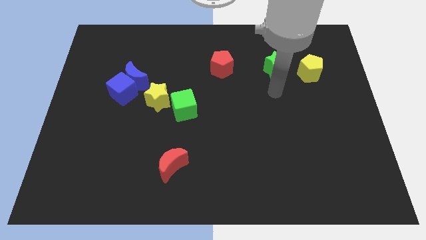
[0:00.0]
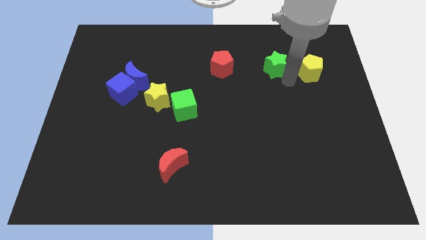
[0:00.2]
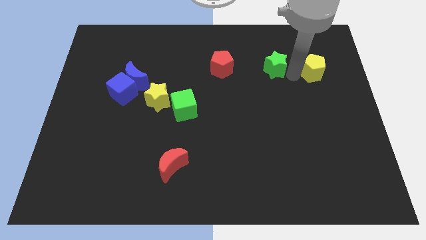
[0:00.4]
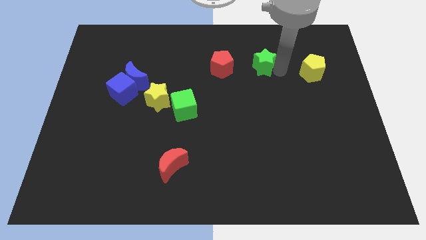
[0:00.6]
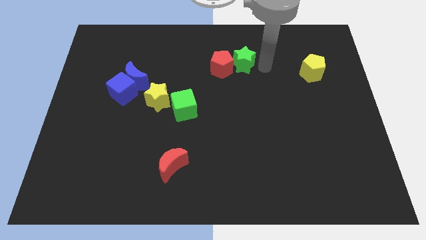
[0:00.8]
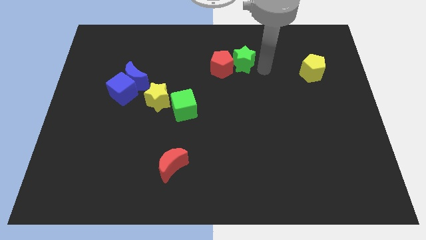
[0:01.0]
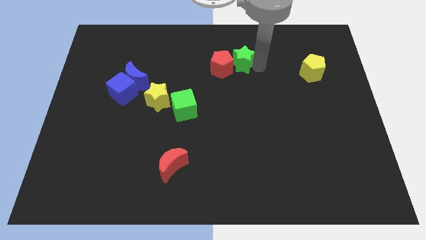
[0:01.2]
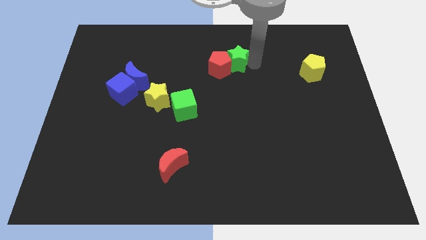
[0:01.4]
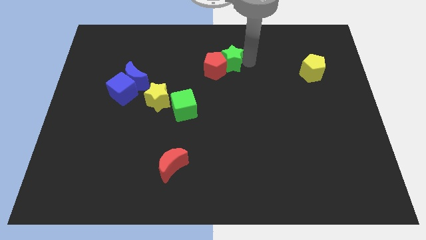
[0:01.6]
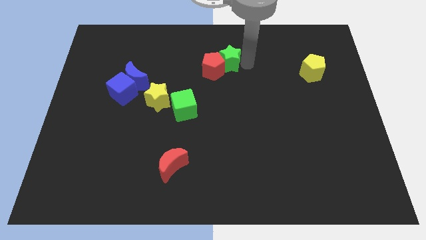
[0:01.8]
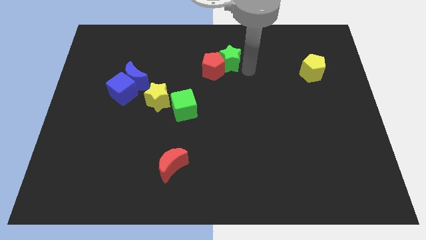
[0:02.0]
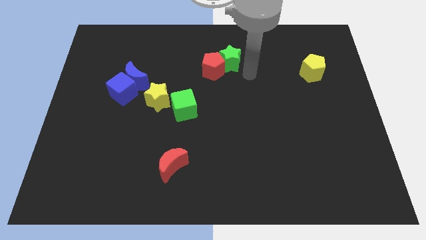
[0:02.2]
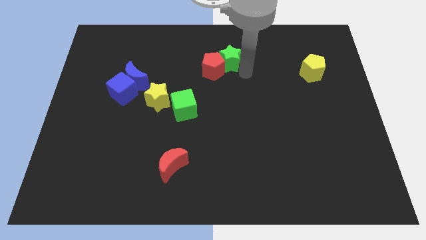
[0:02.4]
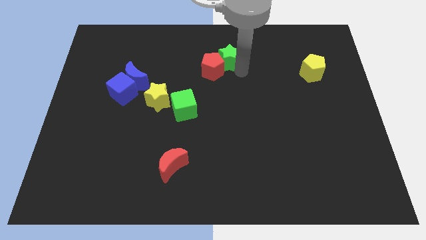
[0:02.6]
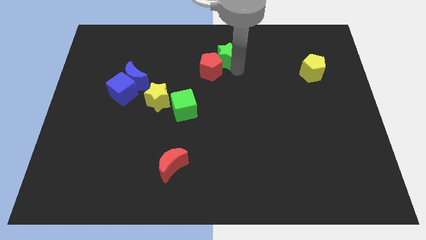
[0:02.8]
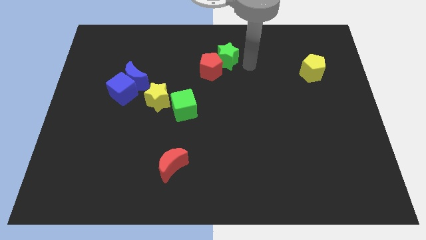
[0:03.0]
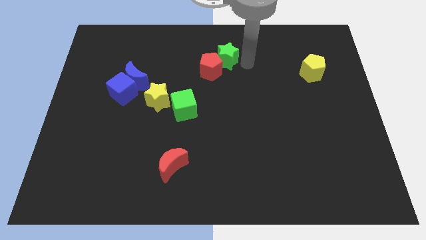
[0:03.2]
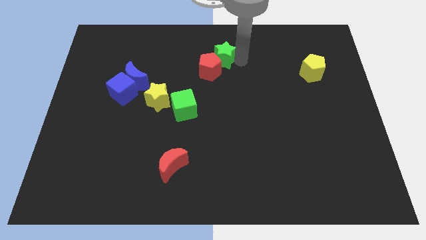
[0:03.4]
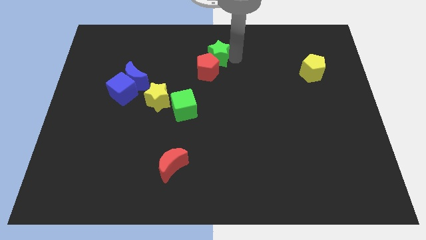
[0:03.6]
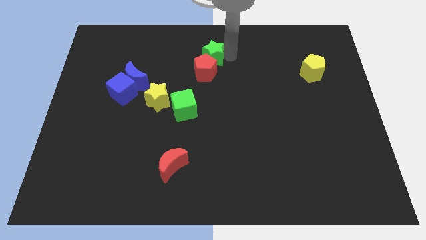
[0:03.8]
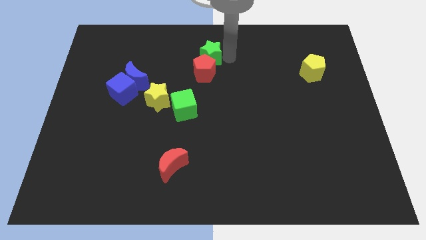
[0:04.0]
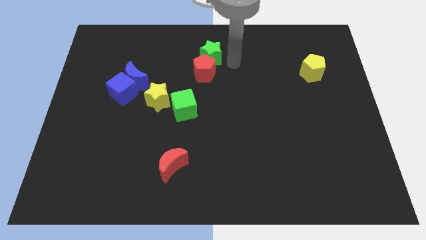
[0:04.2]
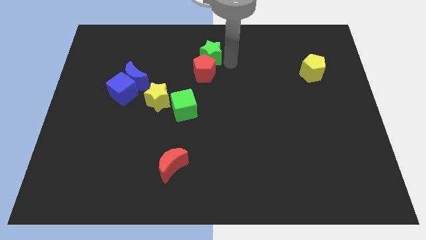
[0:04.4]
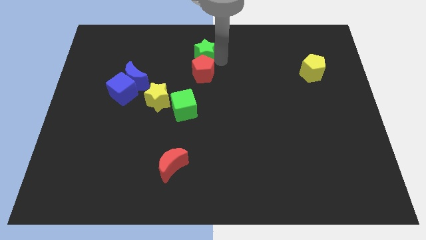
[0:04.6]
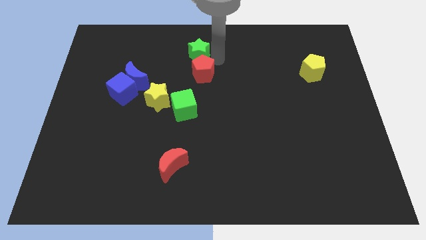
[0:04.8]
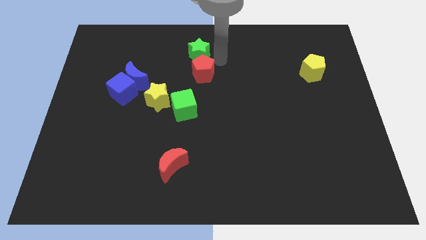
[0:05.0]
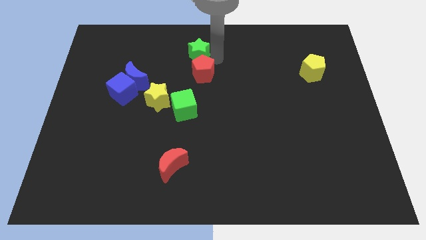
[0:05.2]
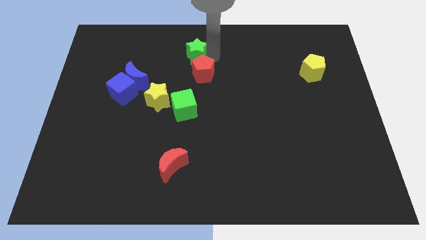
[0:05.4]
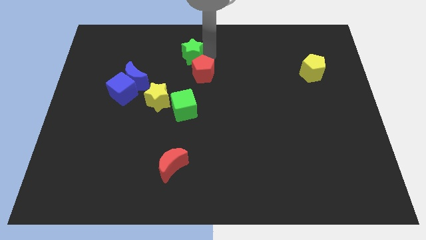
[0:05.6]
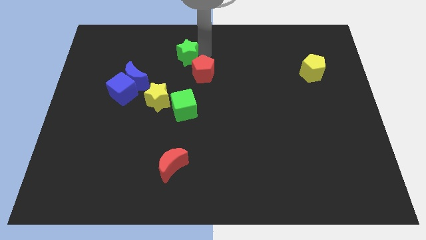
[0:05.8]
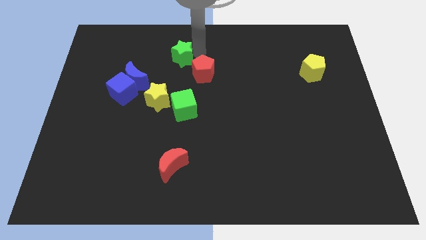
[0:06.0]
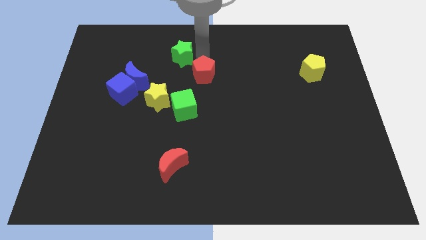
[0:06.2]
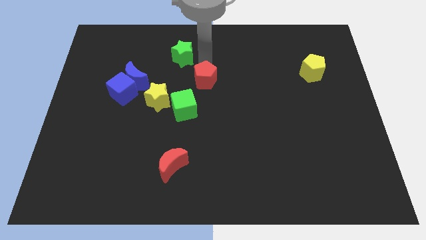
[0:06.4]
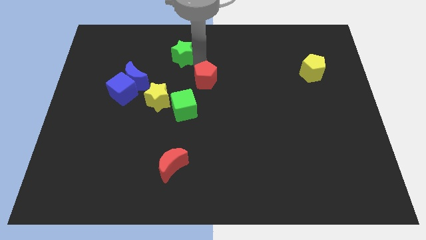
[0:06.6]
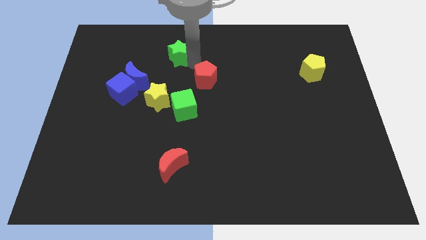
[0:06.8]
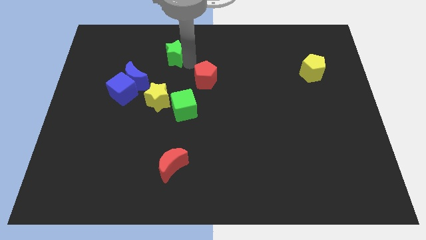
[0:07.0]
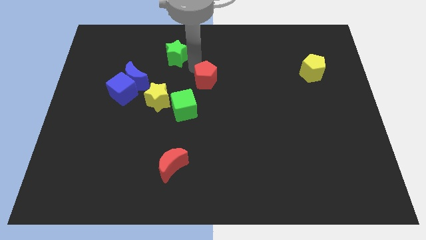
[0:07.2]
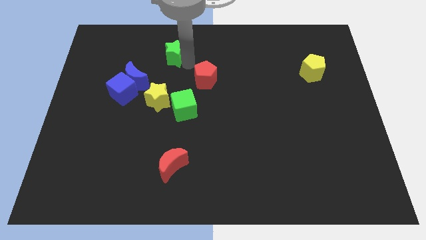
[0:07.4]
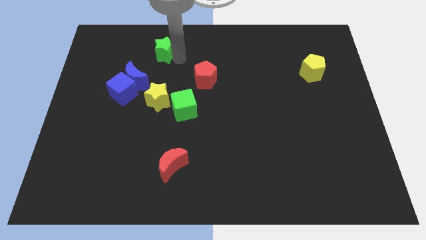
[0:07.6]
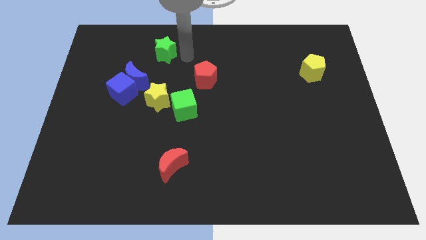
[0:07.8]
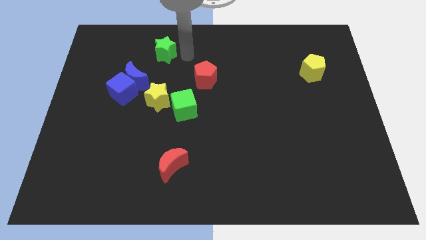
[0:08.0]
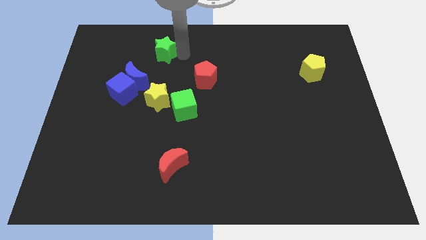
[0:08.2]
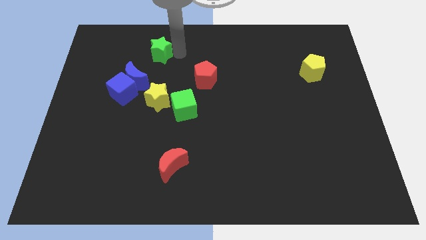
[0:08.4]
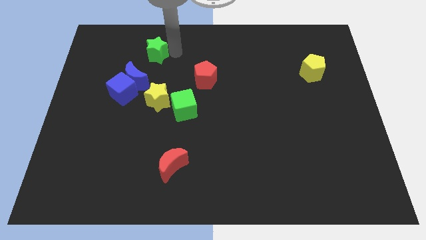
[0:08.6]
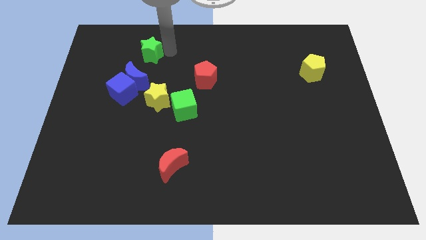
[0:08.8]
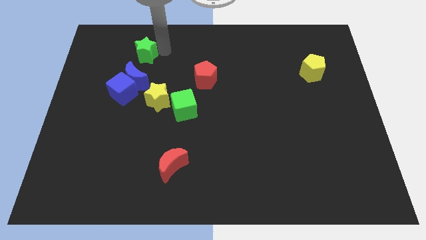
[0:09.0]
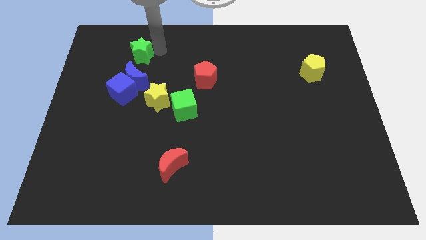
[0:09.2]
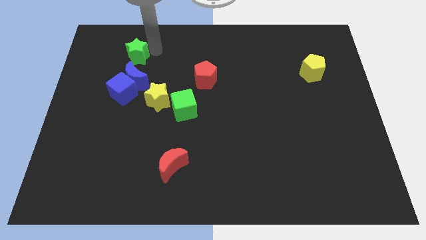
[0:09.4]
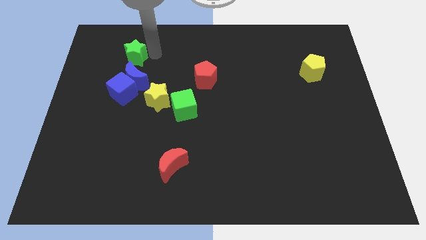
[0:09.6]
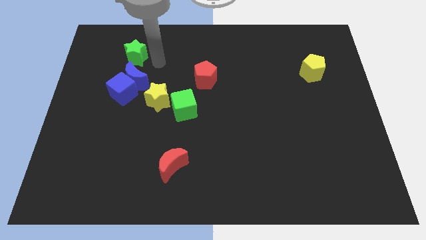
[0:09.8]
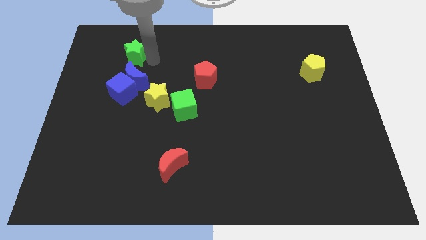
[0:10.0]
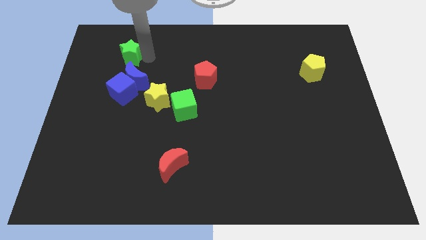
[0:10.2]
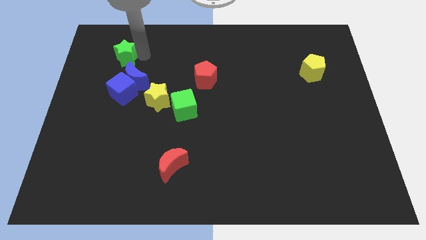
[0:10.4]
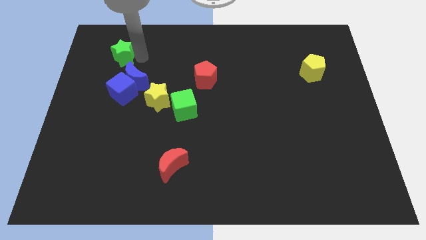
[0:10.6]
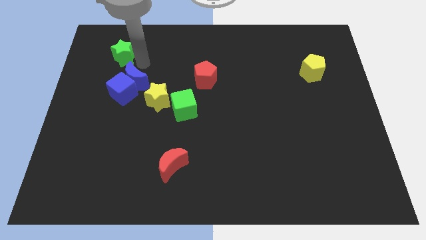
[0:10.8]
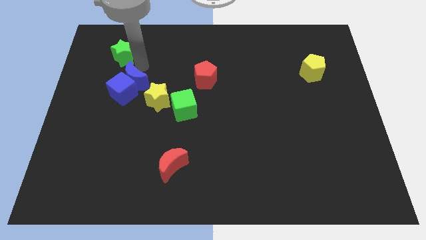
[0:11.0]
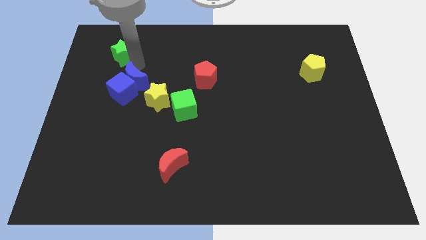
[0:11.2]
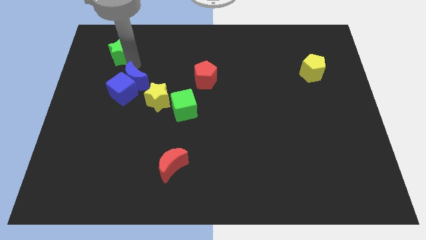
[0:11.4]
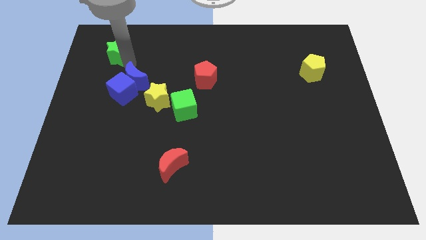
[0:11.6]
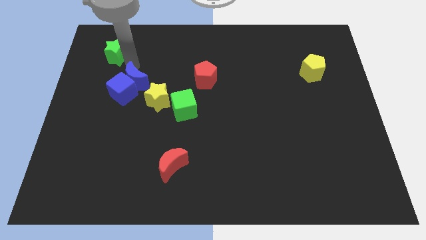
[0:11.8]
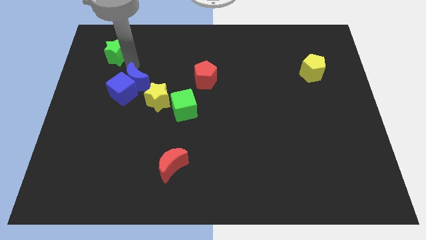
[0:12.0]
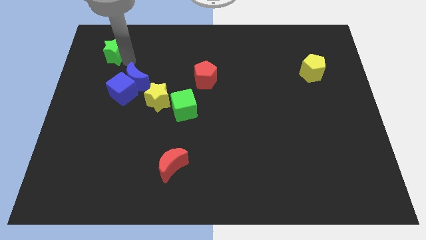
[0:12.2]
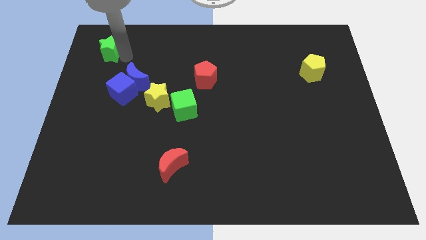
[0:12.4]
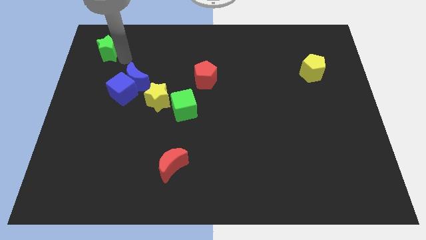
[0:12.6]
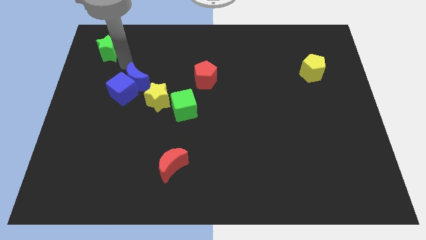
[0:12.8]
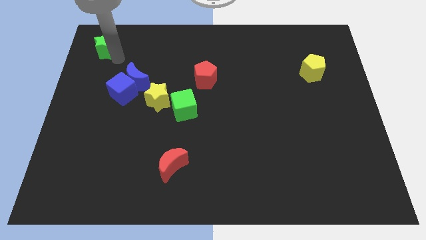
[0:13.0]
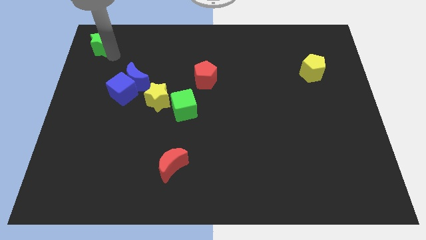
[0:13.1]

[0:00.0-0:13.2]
push the green star to the top left
